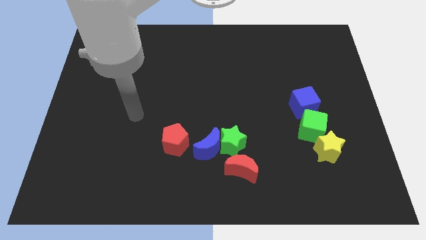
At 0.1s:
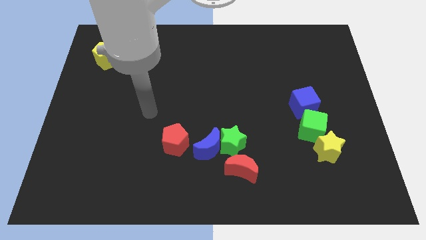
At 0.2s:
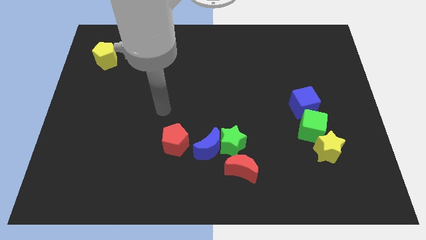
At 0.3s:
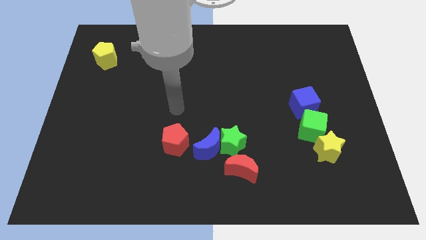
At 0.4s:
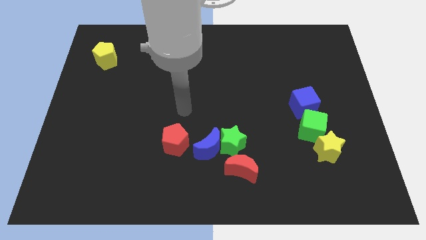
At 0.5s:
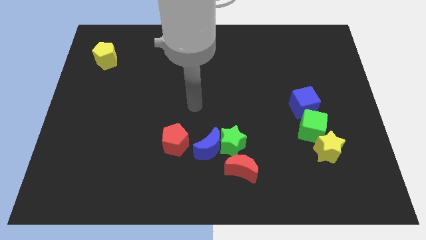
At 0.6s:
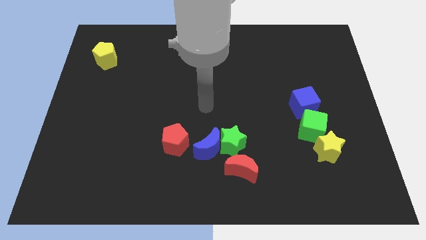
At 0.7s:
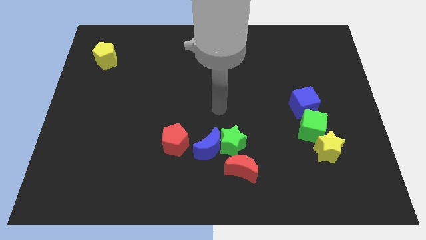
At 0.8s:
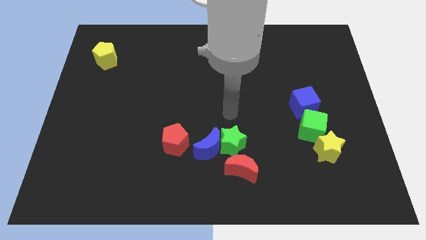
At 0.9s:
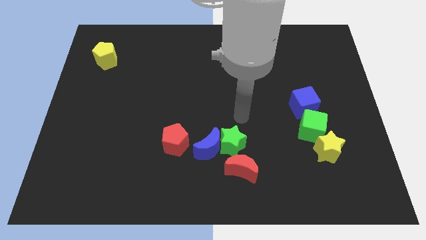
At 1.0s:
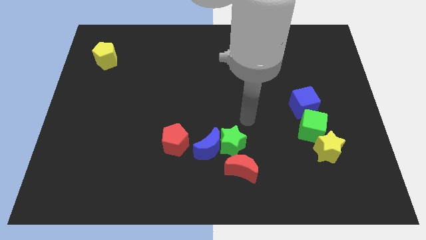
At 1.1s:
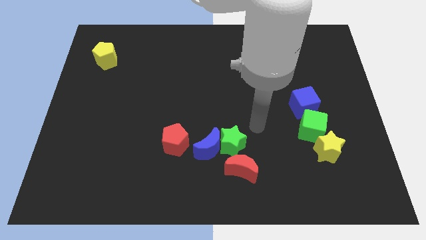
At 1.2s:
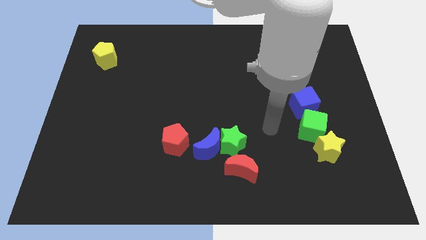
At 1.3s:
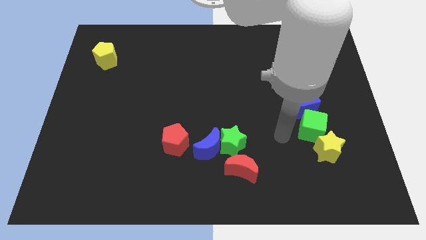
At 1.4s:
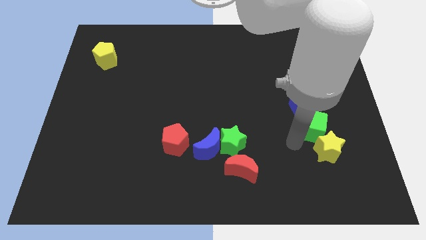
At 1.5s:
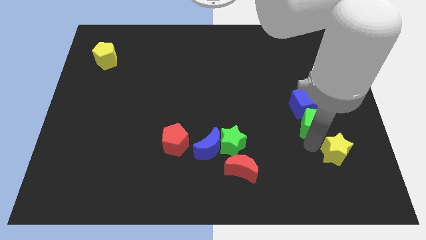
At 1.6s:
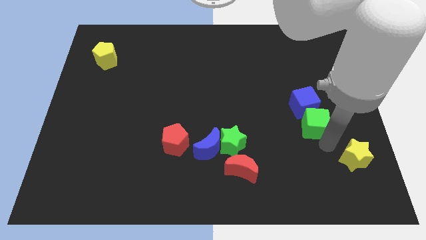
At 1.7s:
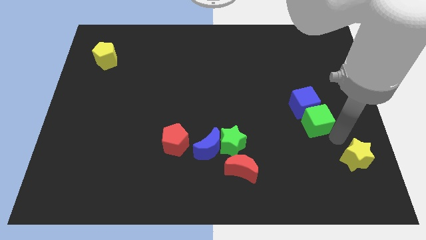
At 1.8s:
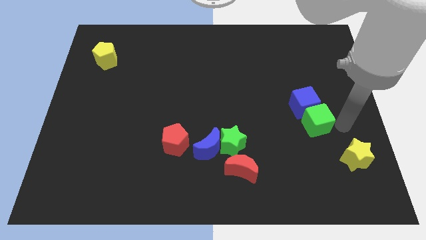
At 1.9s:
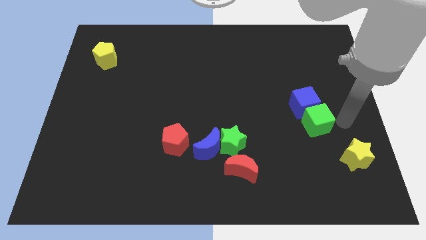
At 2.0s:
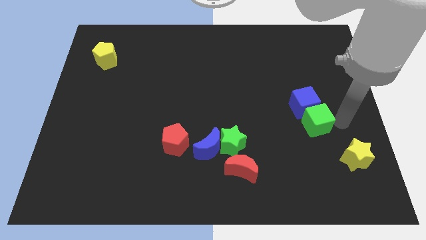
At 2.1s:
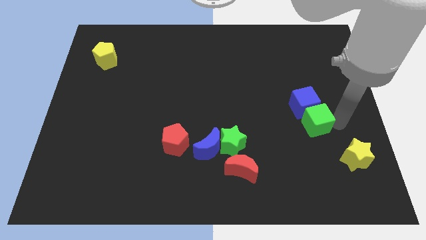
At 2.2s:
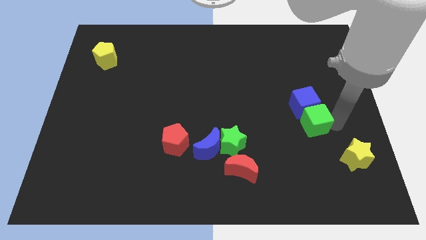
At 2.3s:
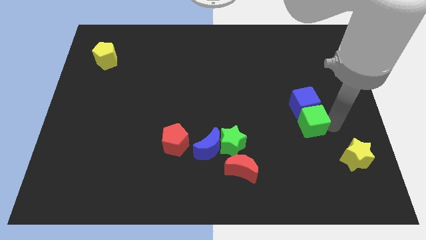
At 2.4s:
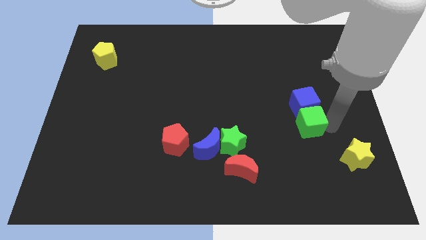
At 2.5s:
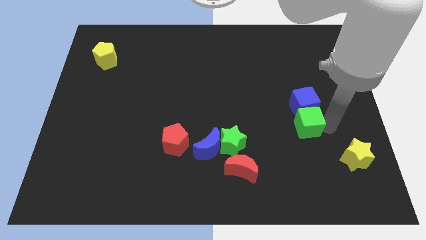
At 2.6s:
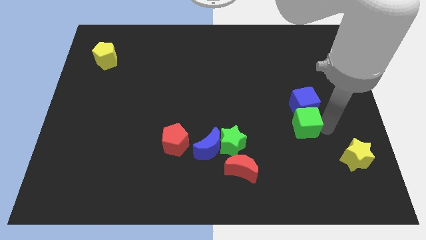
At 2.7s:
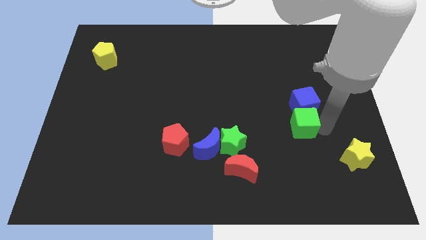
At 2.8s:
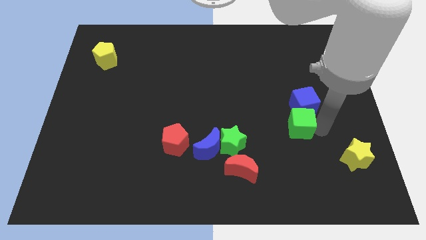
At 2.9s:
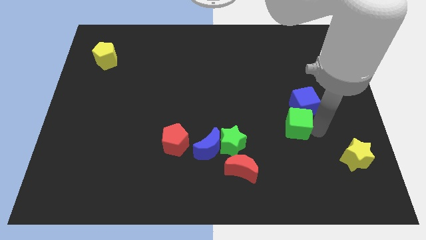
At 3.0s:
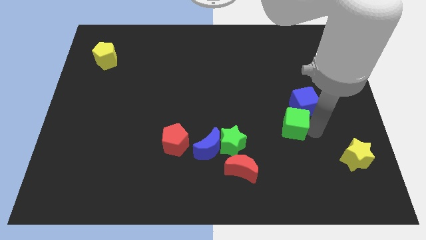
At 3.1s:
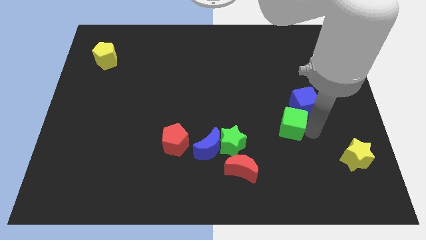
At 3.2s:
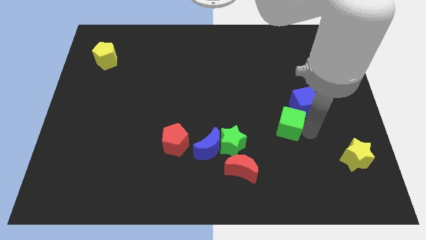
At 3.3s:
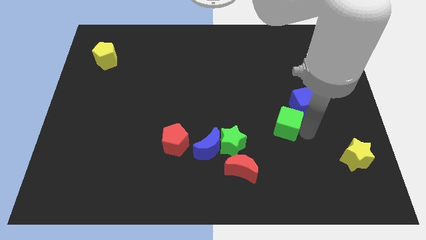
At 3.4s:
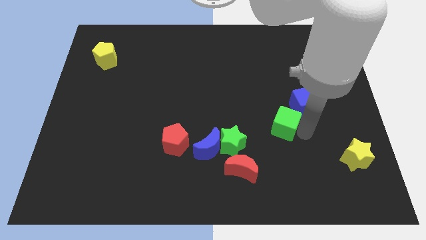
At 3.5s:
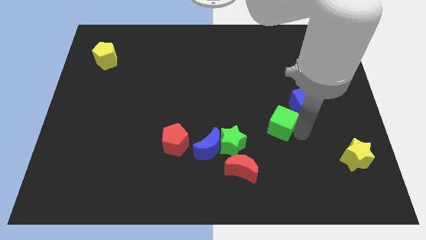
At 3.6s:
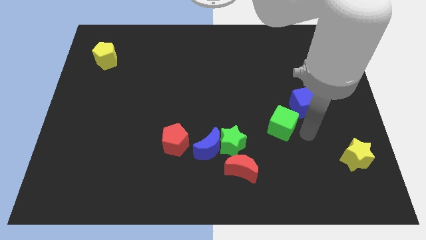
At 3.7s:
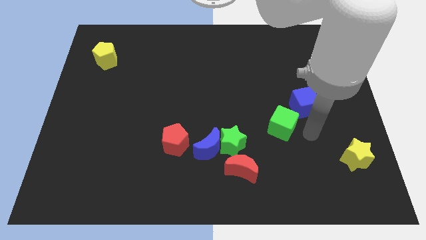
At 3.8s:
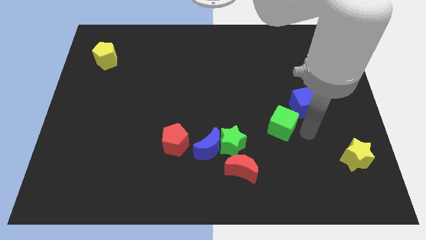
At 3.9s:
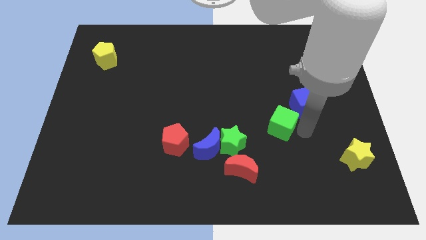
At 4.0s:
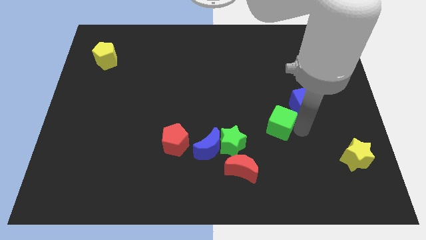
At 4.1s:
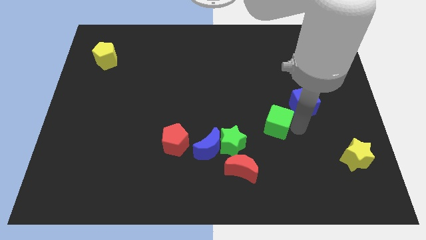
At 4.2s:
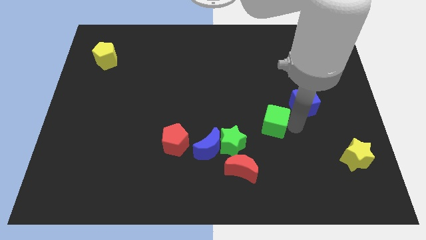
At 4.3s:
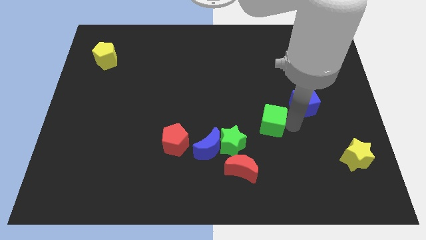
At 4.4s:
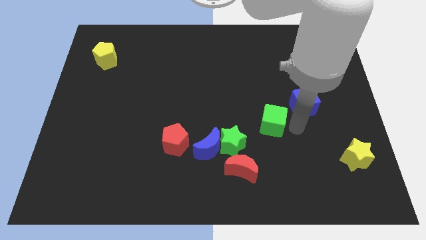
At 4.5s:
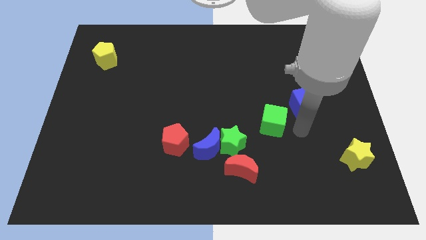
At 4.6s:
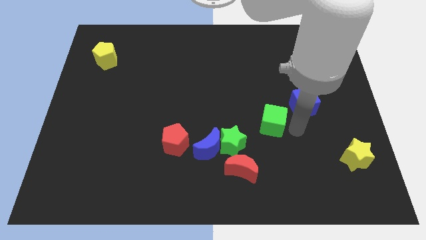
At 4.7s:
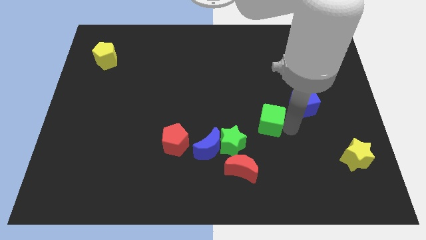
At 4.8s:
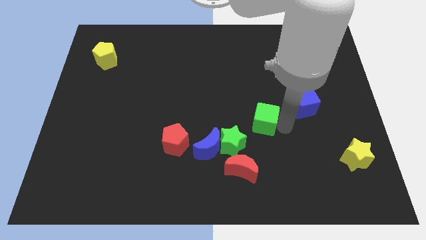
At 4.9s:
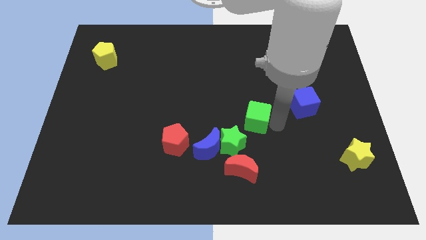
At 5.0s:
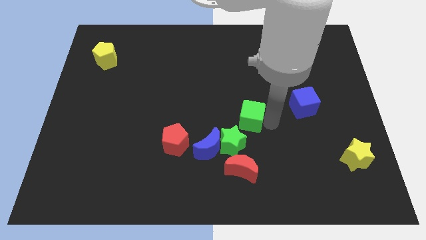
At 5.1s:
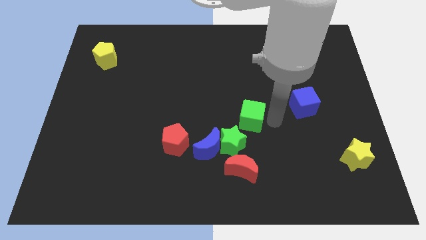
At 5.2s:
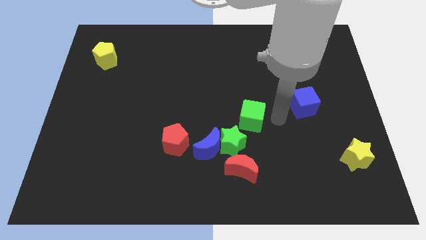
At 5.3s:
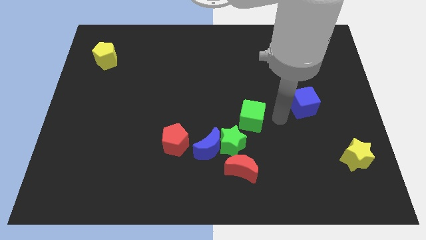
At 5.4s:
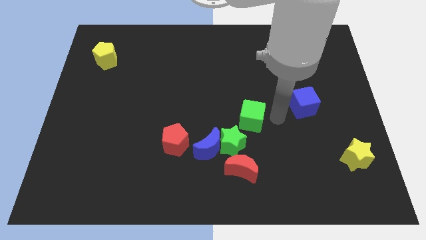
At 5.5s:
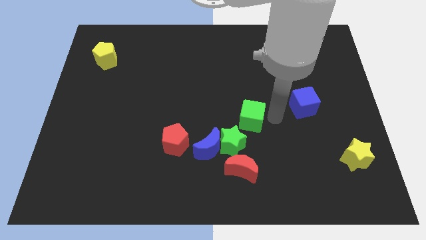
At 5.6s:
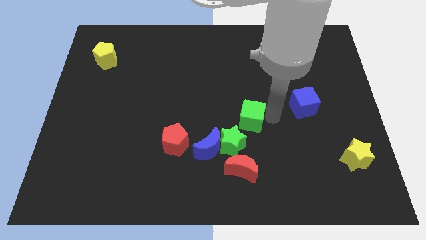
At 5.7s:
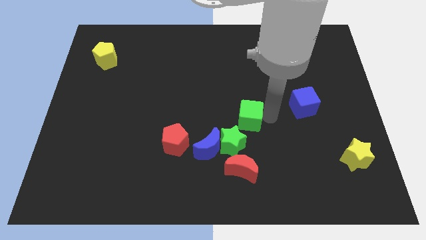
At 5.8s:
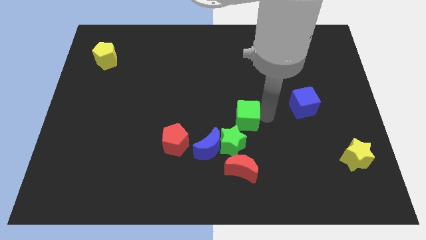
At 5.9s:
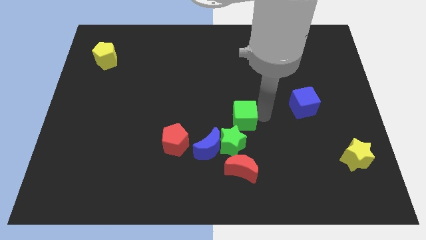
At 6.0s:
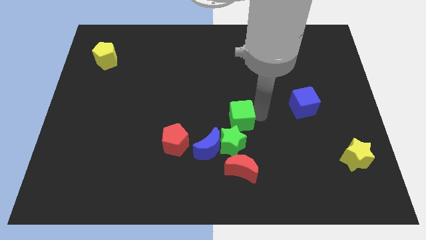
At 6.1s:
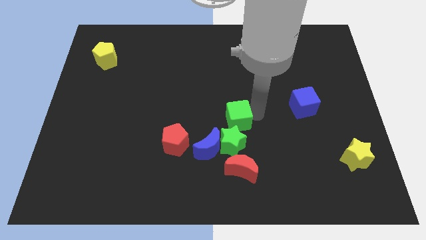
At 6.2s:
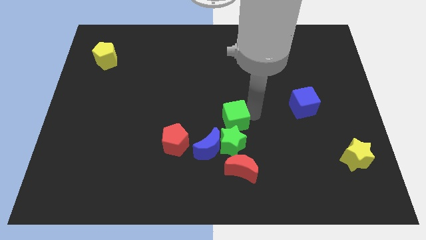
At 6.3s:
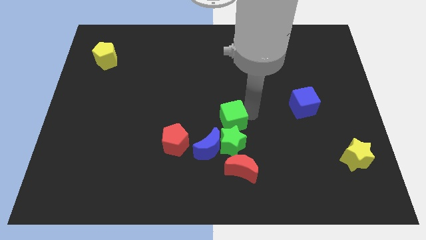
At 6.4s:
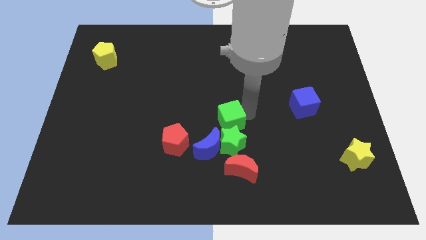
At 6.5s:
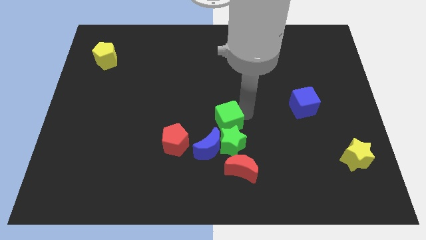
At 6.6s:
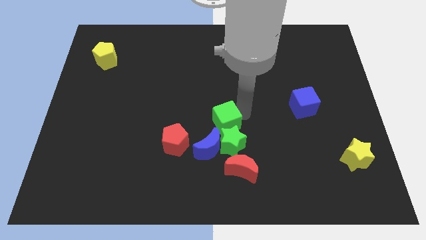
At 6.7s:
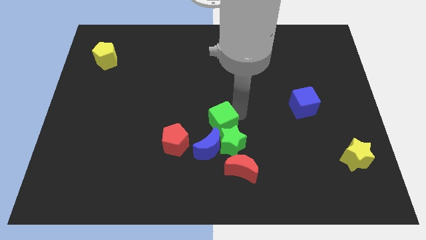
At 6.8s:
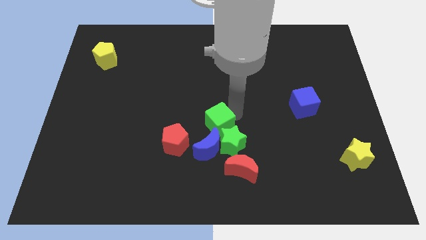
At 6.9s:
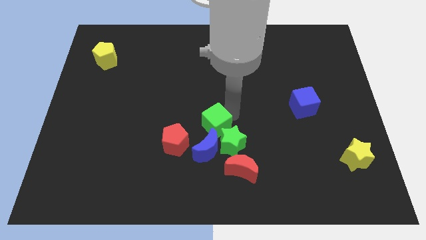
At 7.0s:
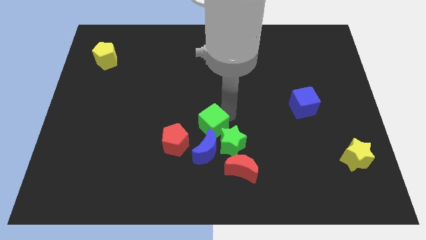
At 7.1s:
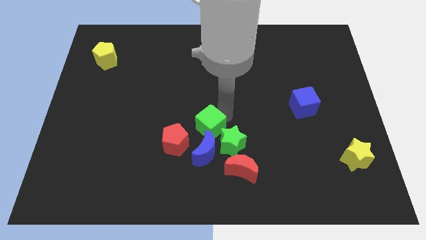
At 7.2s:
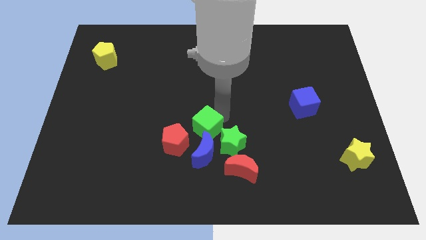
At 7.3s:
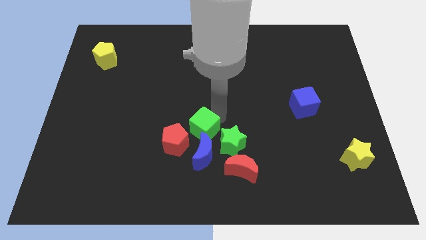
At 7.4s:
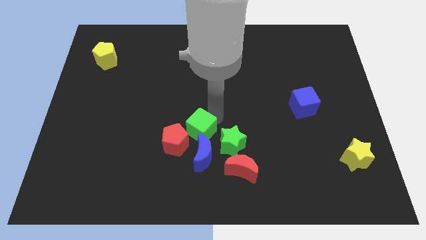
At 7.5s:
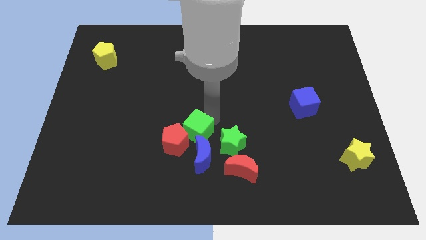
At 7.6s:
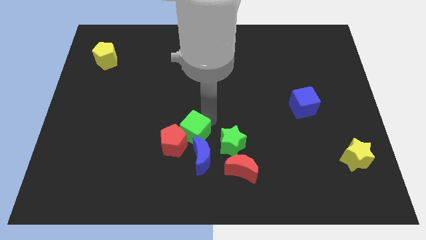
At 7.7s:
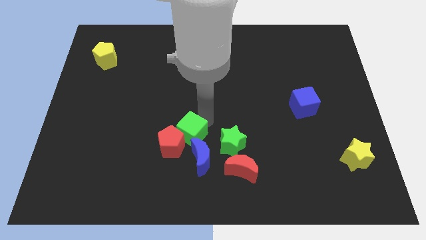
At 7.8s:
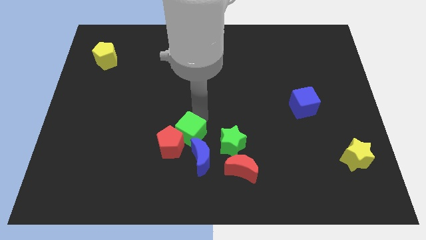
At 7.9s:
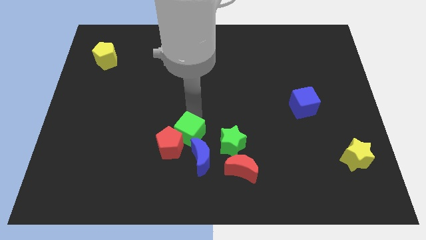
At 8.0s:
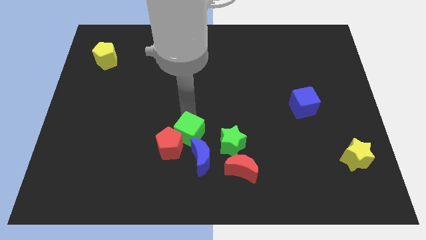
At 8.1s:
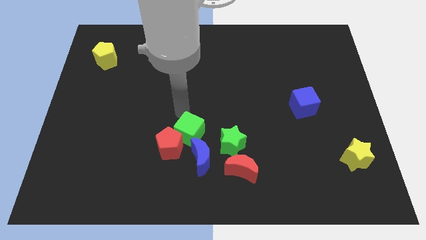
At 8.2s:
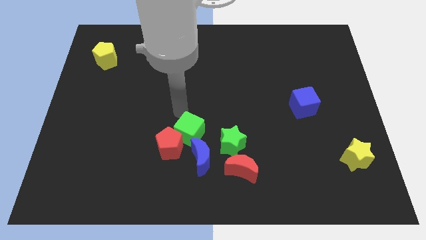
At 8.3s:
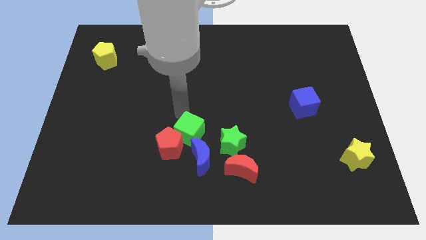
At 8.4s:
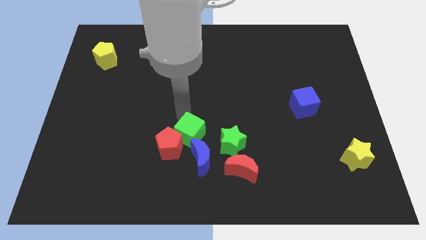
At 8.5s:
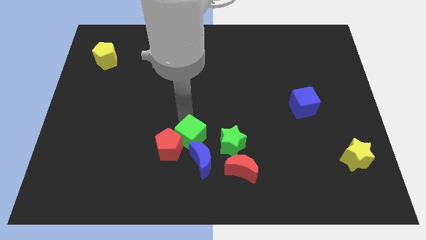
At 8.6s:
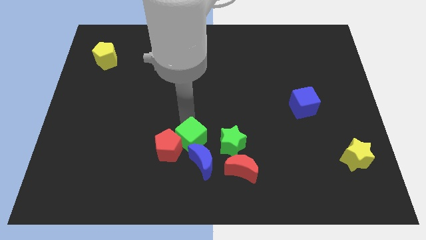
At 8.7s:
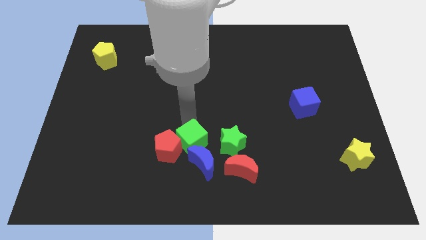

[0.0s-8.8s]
move the green cube next to the blue moon
